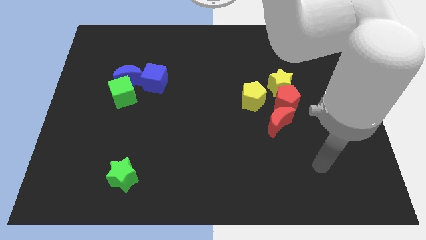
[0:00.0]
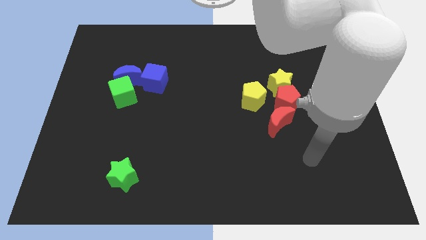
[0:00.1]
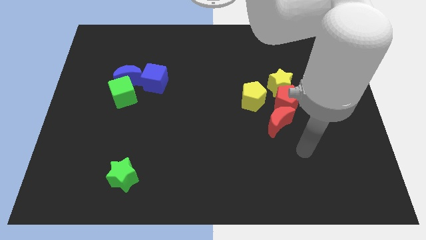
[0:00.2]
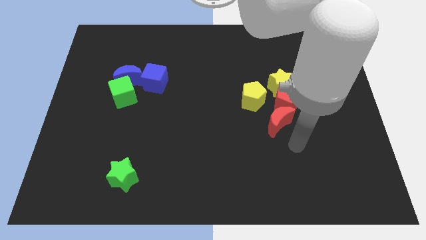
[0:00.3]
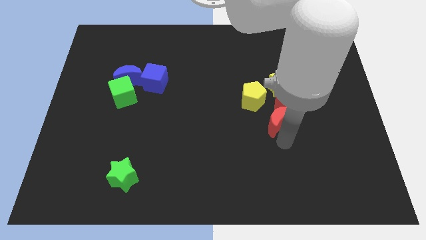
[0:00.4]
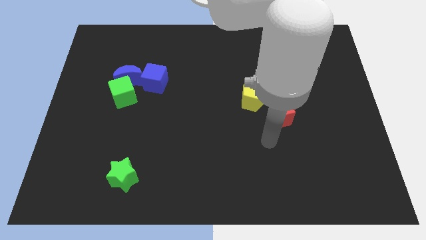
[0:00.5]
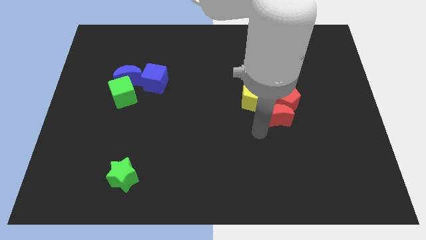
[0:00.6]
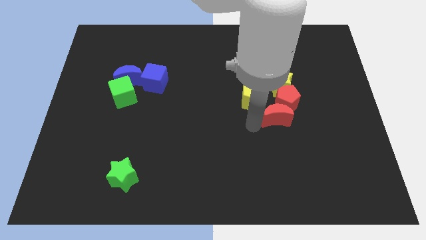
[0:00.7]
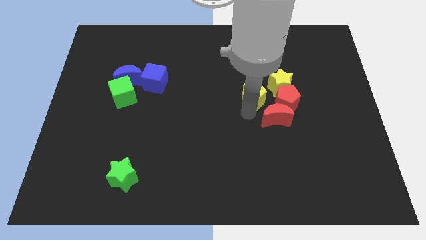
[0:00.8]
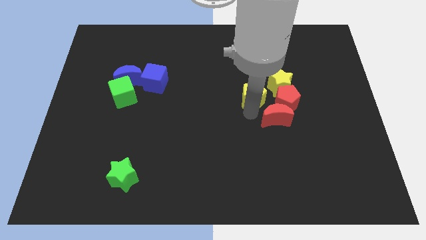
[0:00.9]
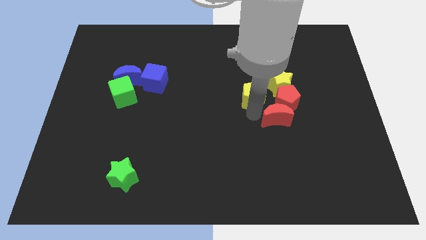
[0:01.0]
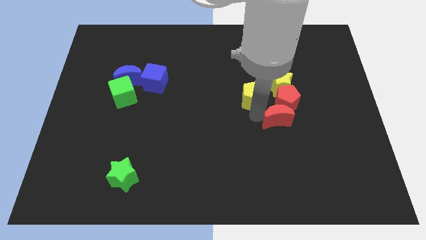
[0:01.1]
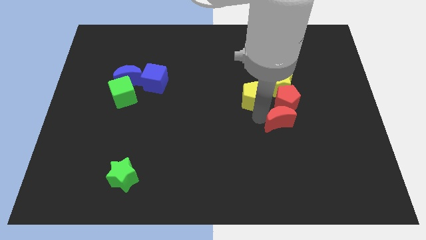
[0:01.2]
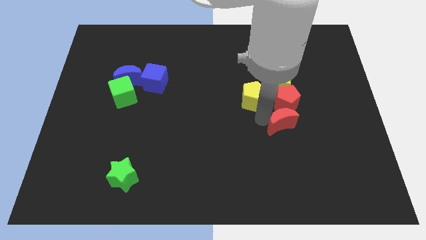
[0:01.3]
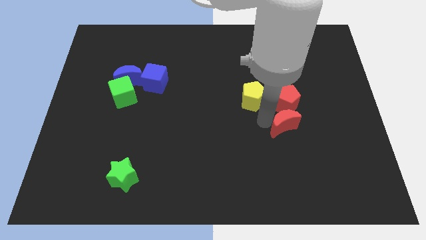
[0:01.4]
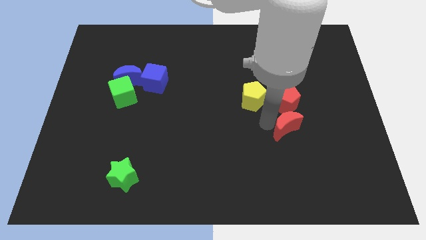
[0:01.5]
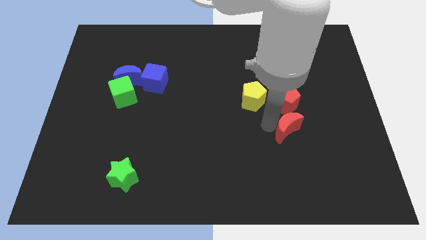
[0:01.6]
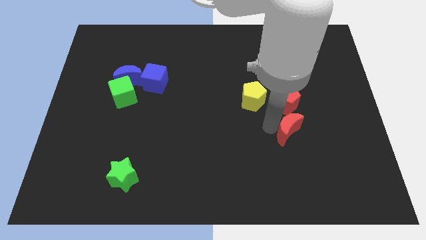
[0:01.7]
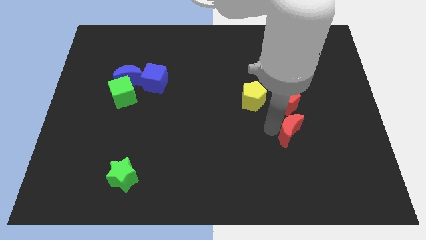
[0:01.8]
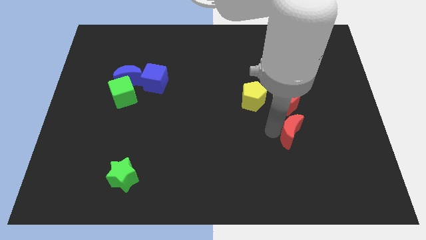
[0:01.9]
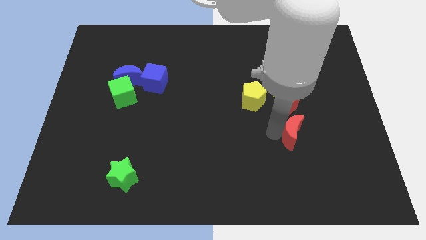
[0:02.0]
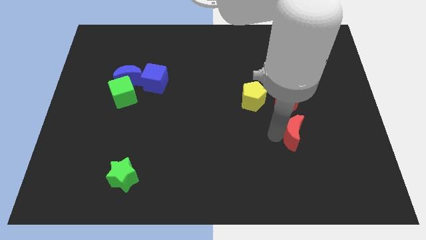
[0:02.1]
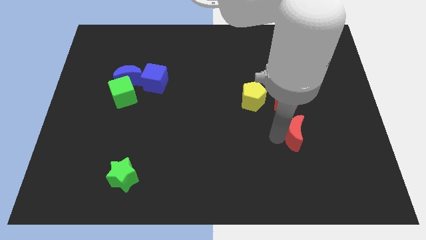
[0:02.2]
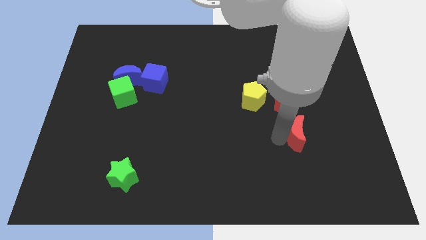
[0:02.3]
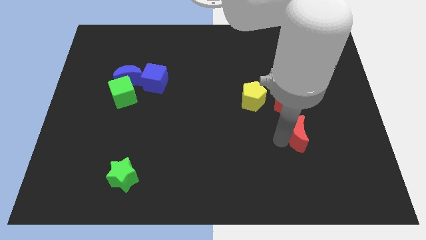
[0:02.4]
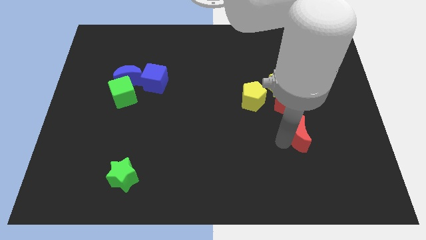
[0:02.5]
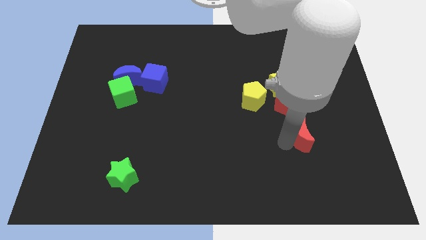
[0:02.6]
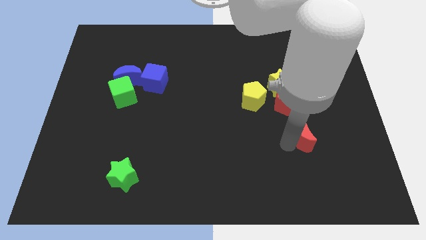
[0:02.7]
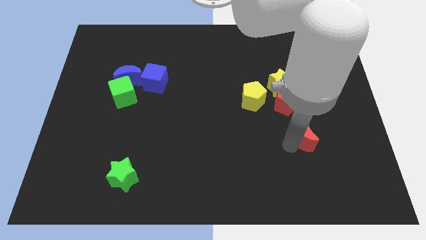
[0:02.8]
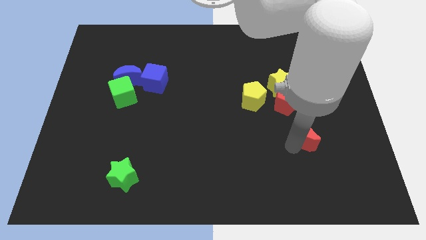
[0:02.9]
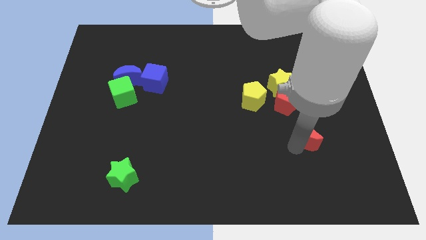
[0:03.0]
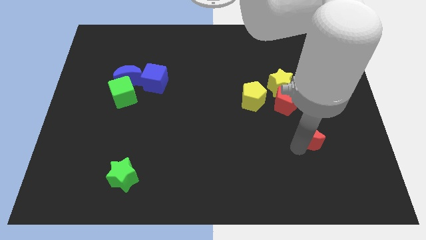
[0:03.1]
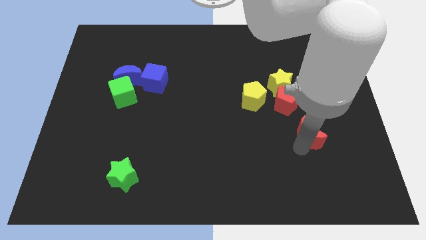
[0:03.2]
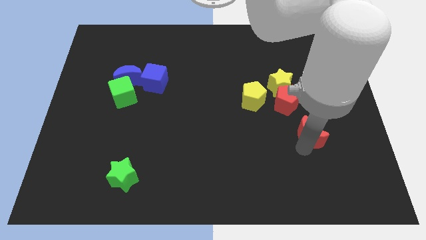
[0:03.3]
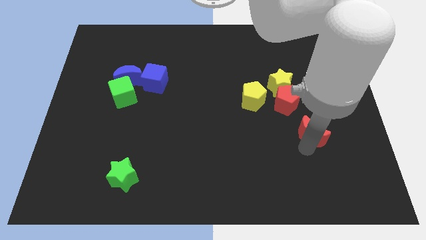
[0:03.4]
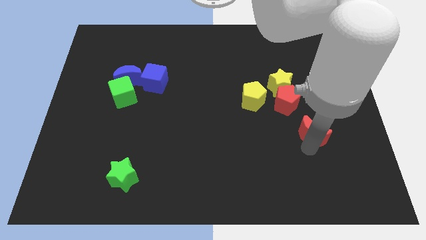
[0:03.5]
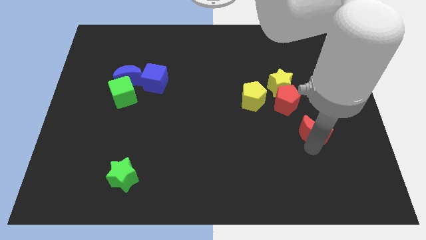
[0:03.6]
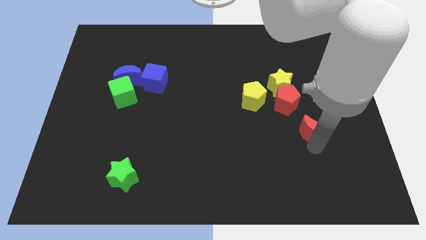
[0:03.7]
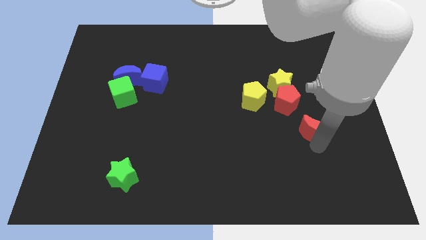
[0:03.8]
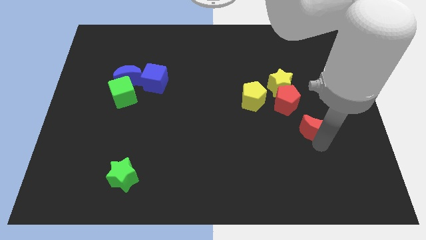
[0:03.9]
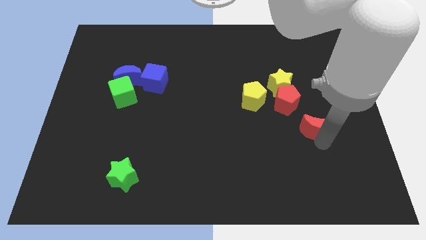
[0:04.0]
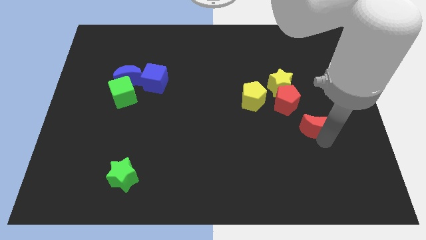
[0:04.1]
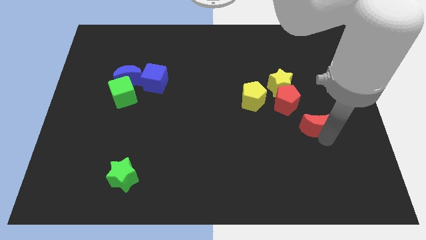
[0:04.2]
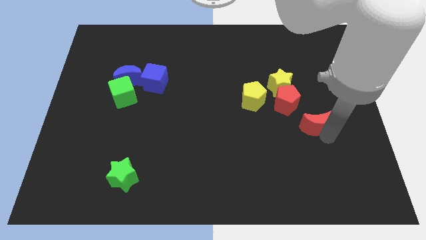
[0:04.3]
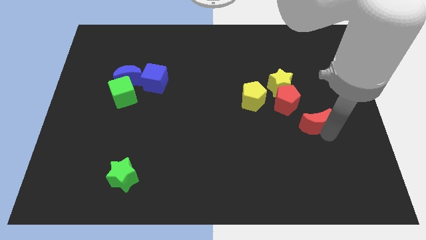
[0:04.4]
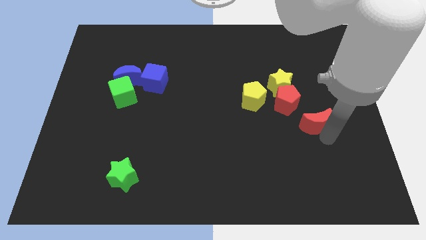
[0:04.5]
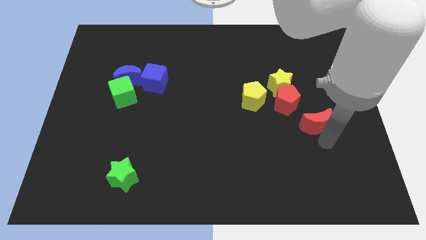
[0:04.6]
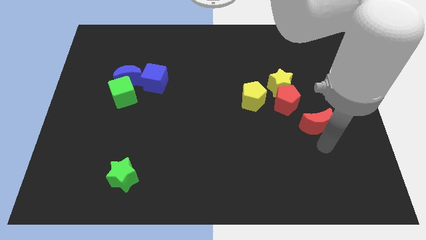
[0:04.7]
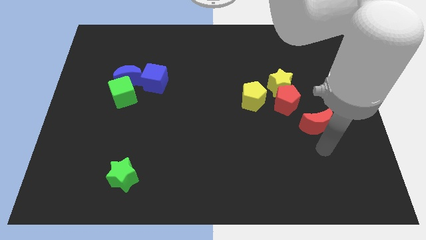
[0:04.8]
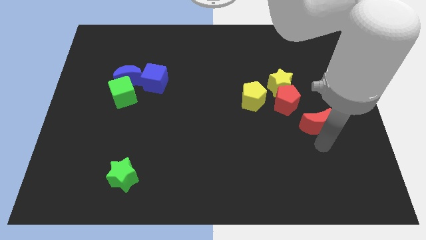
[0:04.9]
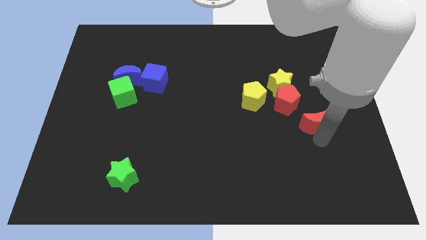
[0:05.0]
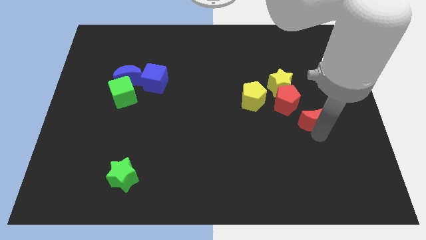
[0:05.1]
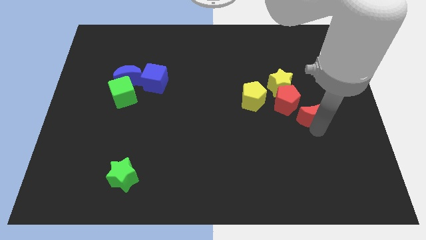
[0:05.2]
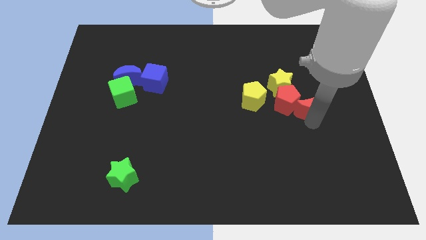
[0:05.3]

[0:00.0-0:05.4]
slightly push the red moon diagonally up and right

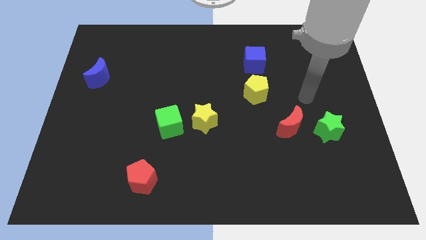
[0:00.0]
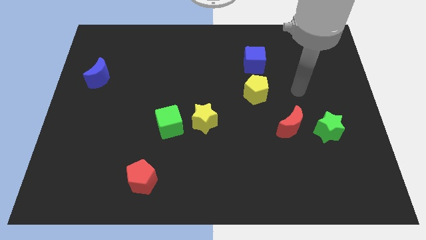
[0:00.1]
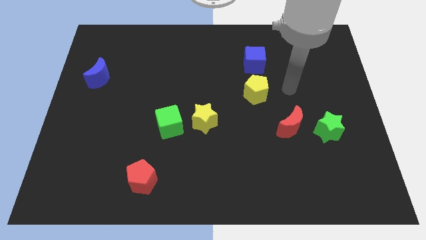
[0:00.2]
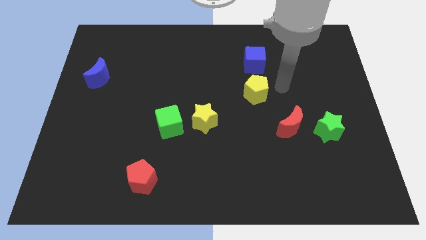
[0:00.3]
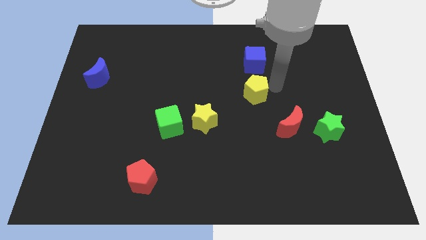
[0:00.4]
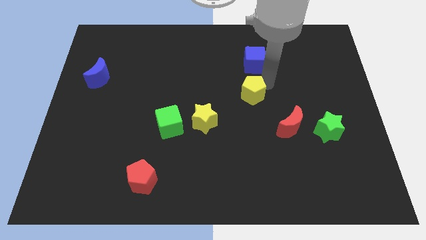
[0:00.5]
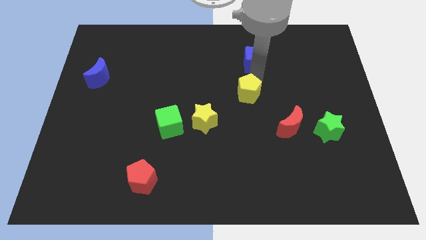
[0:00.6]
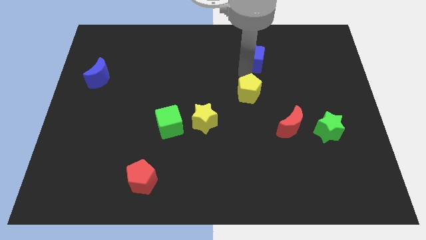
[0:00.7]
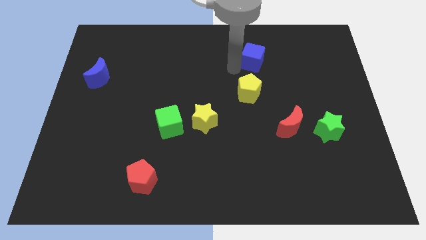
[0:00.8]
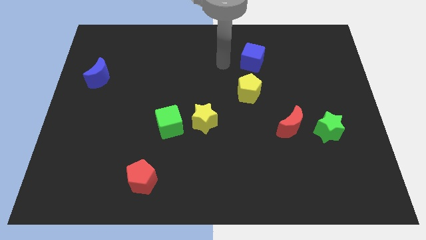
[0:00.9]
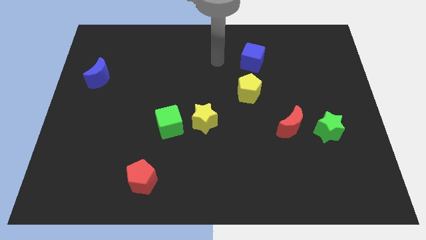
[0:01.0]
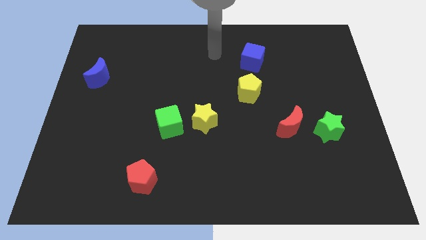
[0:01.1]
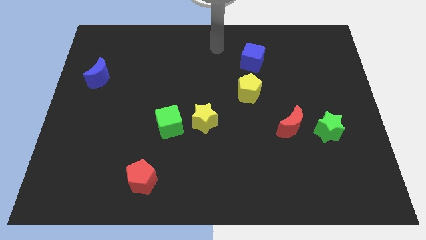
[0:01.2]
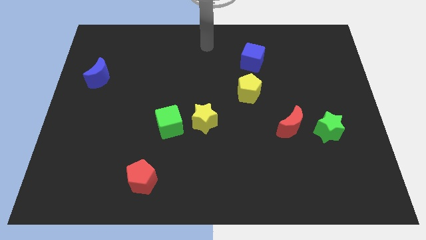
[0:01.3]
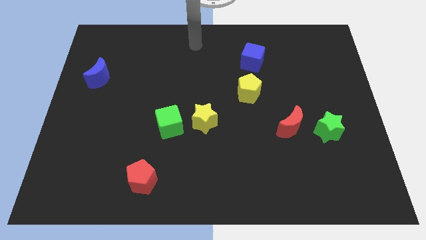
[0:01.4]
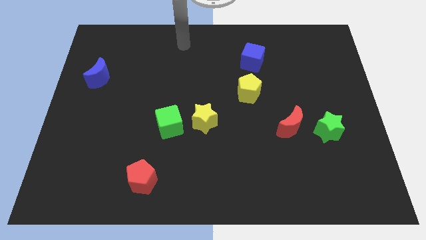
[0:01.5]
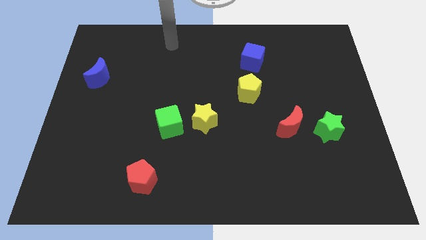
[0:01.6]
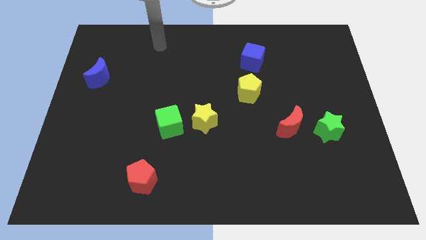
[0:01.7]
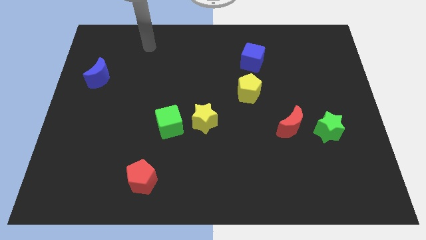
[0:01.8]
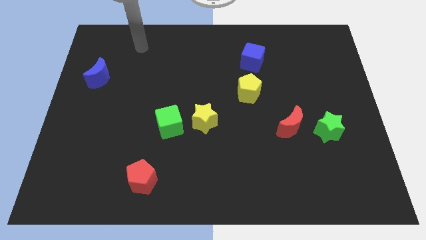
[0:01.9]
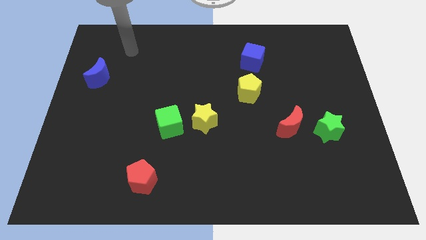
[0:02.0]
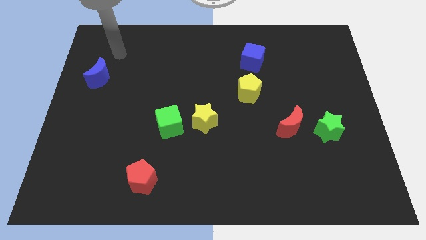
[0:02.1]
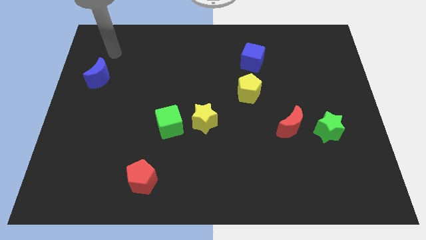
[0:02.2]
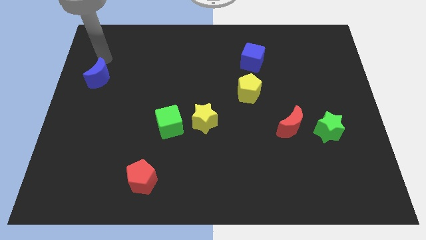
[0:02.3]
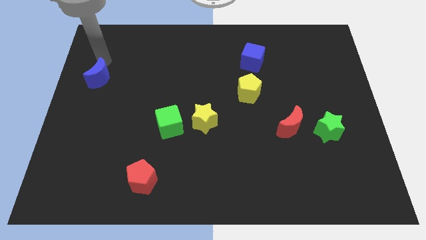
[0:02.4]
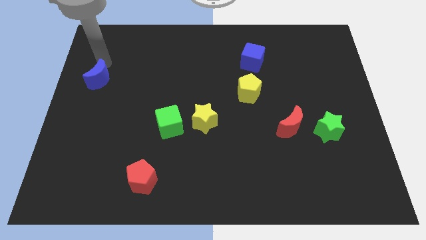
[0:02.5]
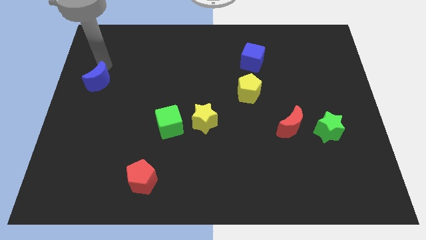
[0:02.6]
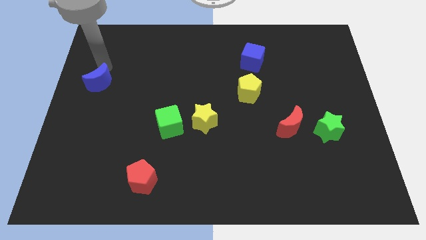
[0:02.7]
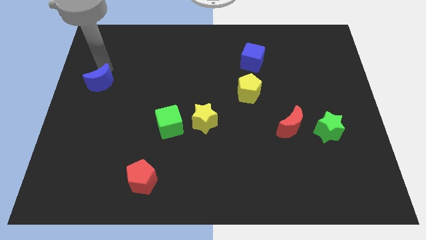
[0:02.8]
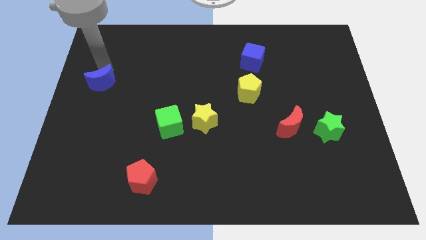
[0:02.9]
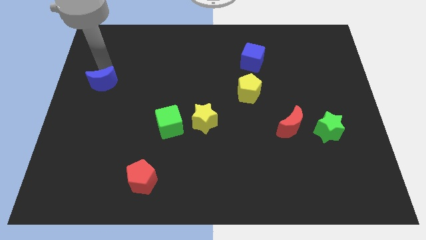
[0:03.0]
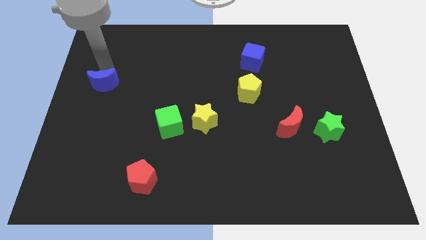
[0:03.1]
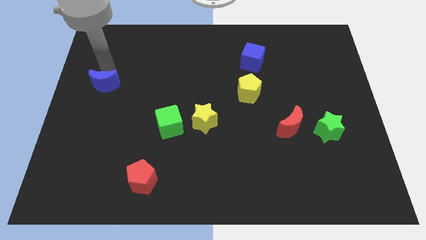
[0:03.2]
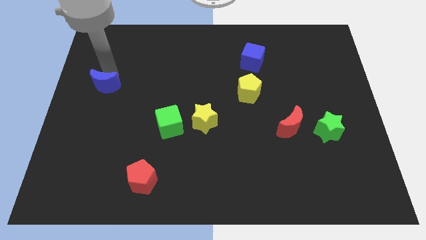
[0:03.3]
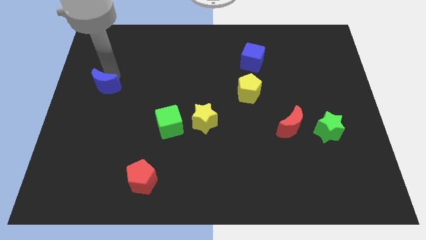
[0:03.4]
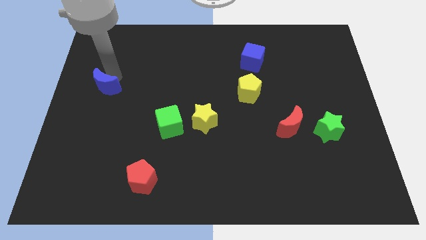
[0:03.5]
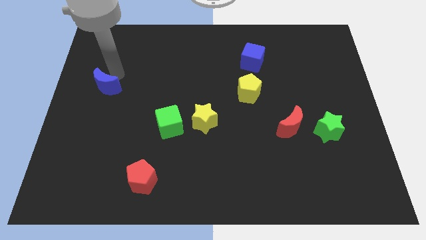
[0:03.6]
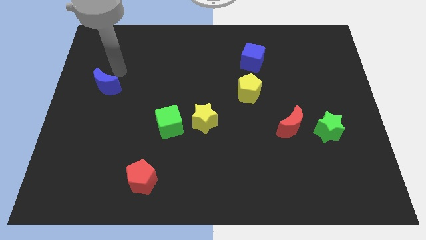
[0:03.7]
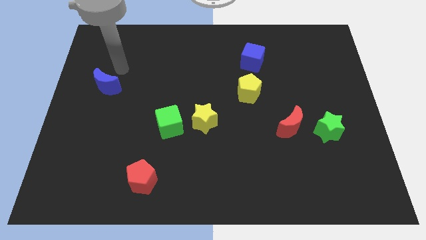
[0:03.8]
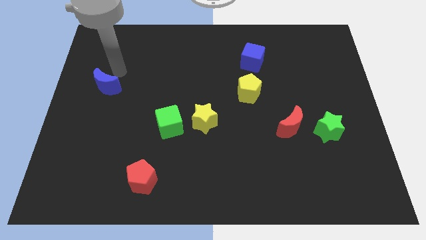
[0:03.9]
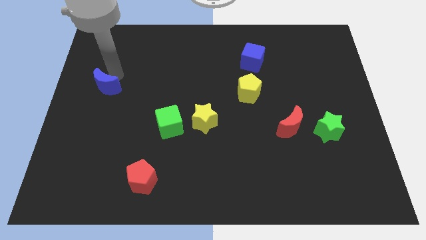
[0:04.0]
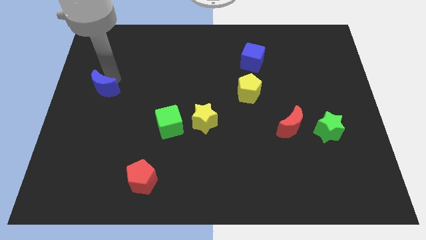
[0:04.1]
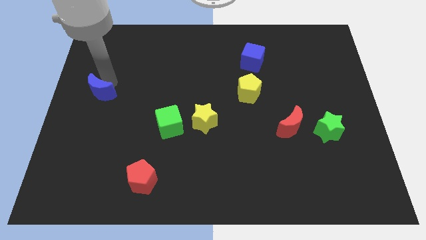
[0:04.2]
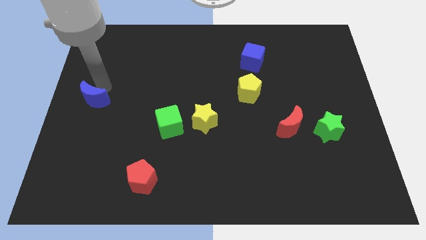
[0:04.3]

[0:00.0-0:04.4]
move the blue moon a little bit downwards
